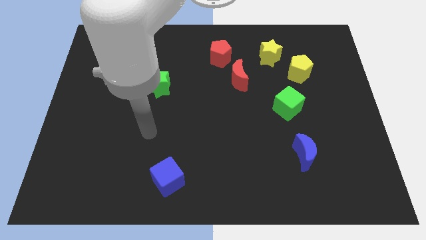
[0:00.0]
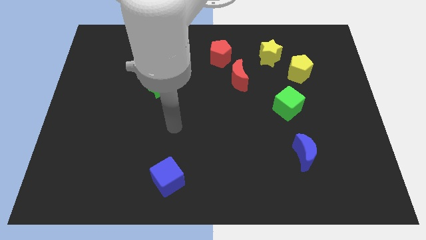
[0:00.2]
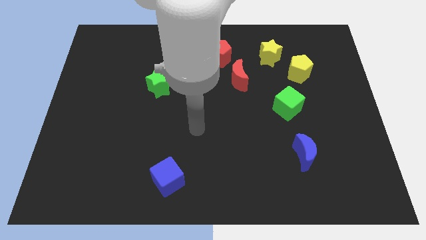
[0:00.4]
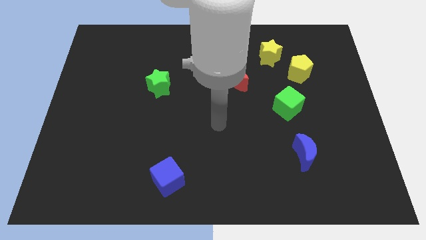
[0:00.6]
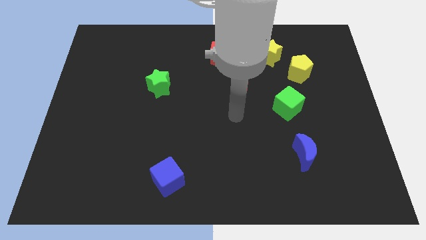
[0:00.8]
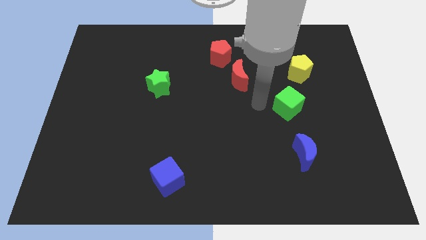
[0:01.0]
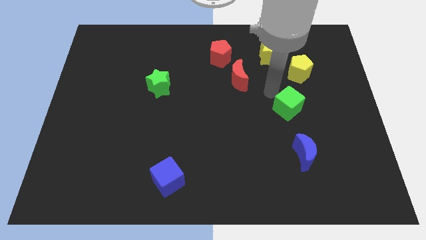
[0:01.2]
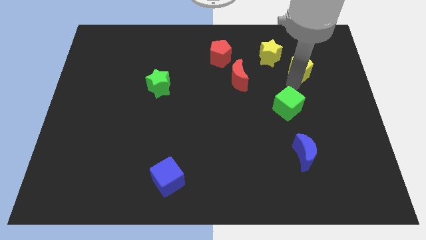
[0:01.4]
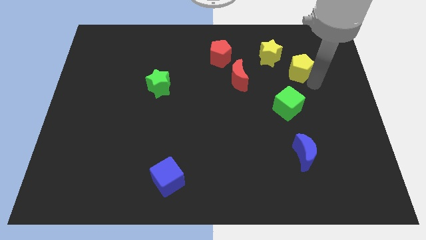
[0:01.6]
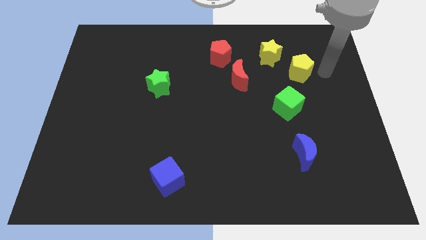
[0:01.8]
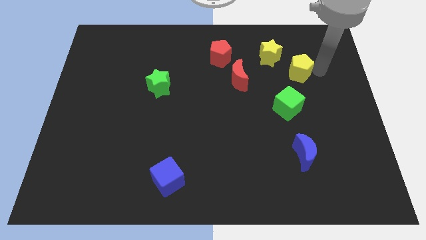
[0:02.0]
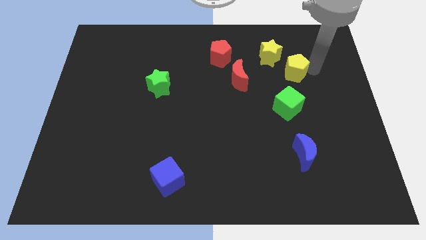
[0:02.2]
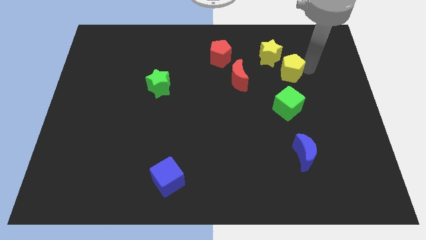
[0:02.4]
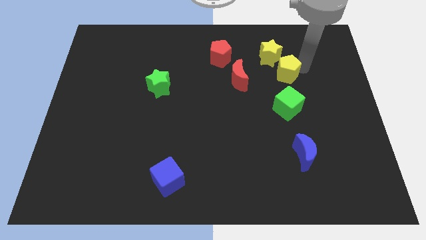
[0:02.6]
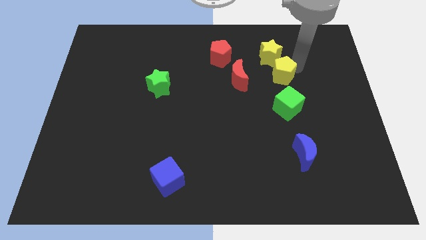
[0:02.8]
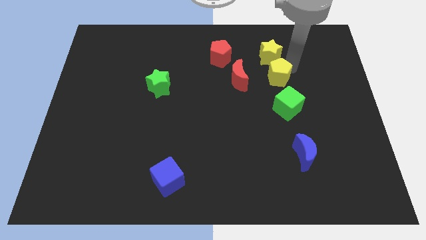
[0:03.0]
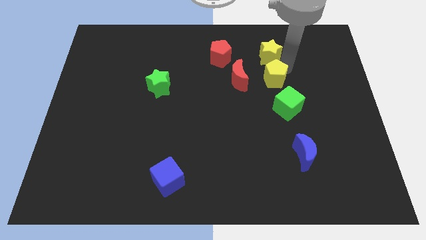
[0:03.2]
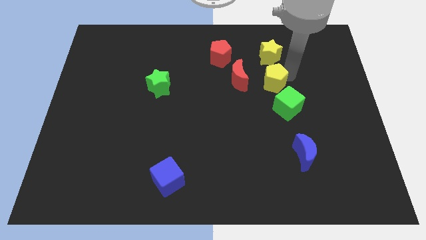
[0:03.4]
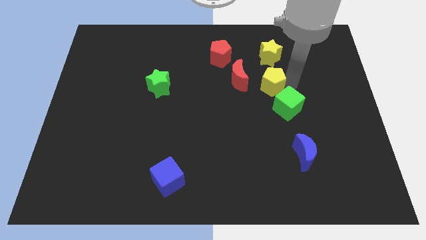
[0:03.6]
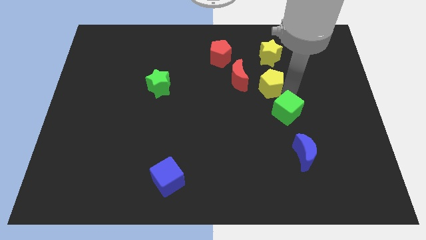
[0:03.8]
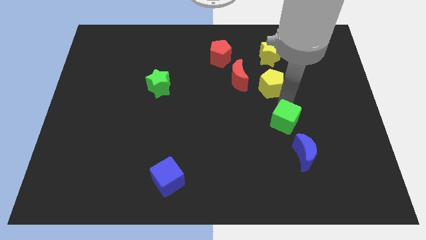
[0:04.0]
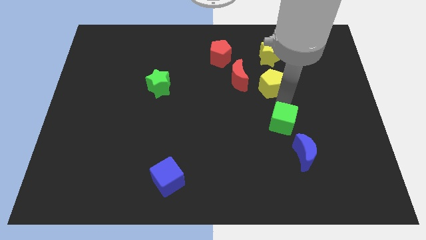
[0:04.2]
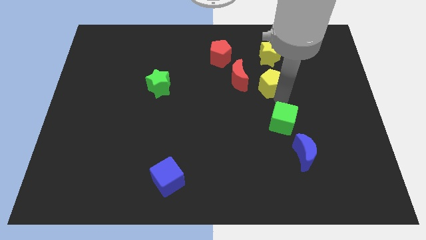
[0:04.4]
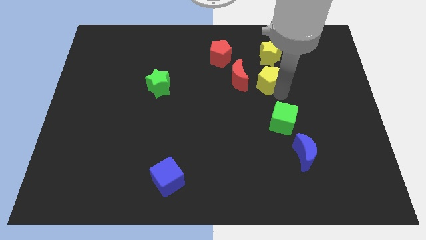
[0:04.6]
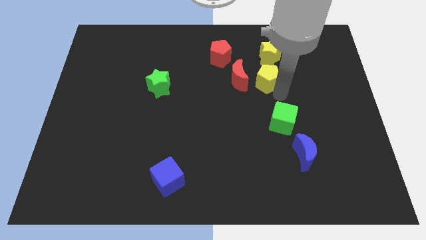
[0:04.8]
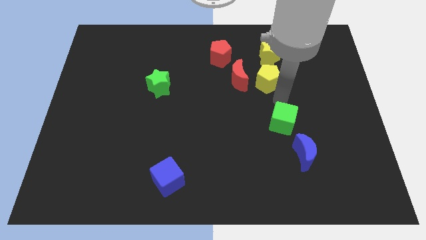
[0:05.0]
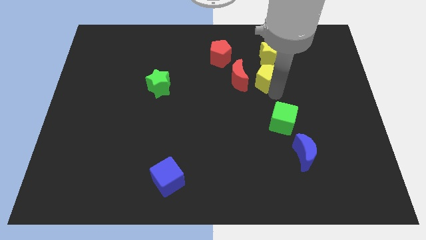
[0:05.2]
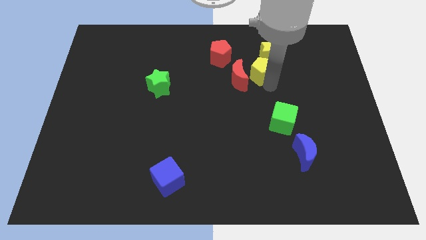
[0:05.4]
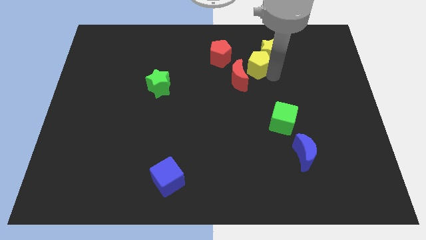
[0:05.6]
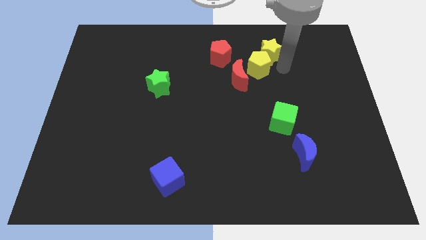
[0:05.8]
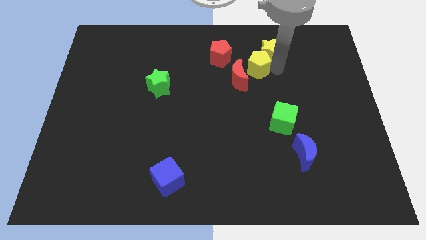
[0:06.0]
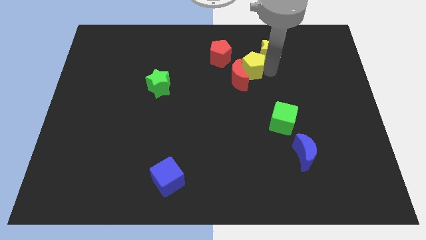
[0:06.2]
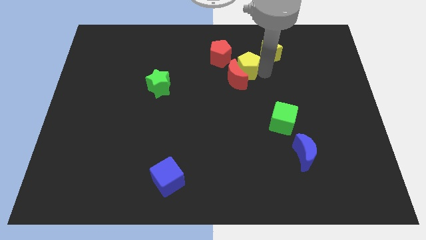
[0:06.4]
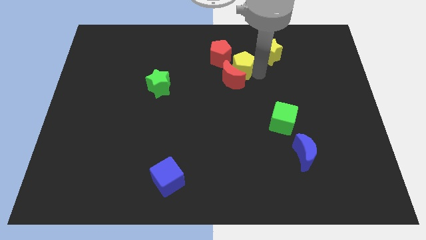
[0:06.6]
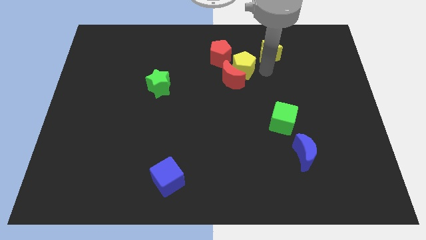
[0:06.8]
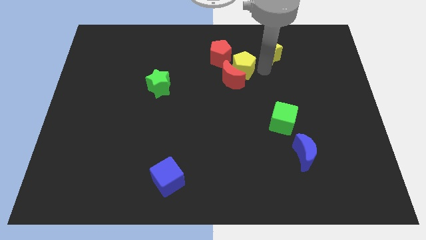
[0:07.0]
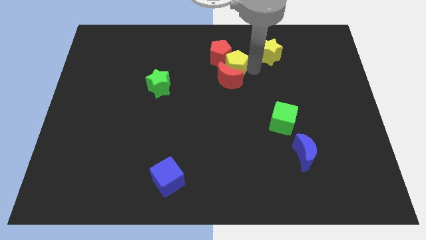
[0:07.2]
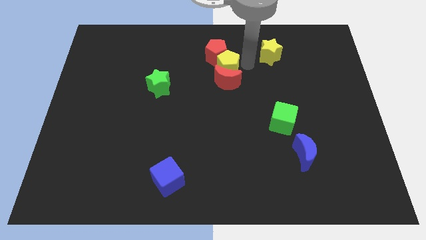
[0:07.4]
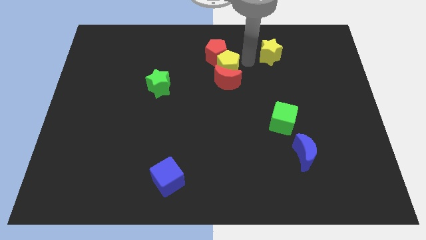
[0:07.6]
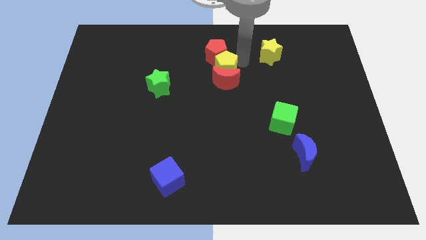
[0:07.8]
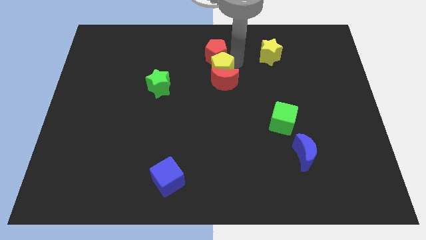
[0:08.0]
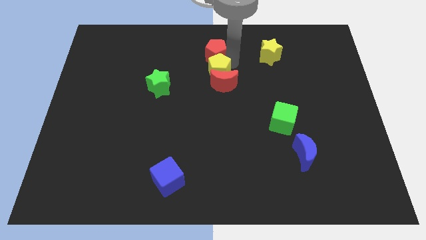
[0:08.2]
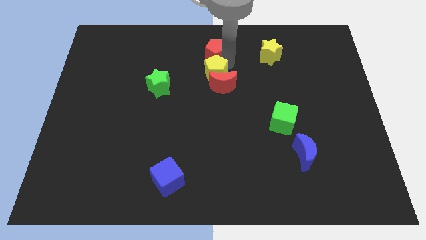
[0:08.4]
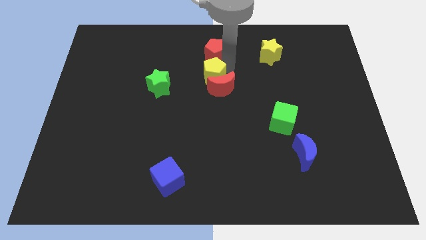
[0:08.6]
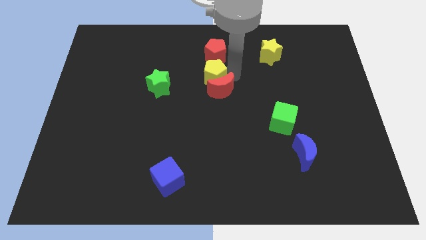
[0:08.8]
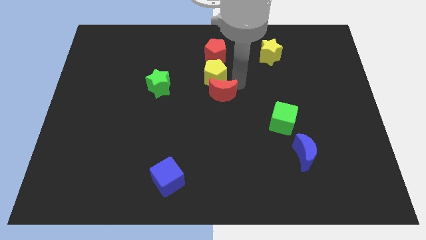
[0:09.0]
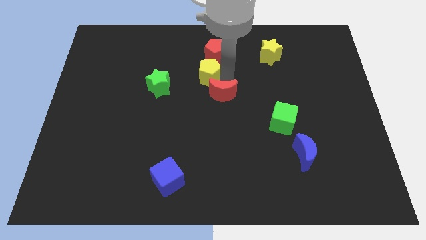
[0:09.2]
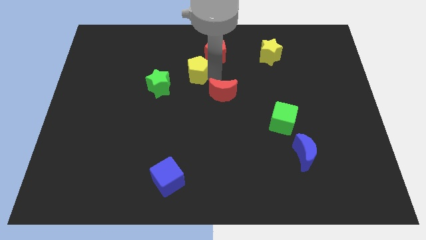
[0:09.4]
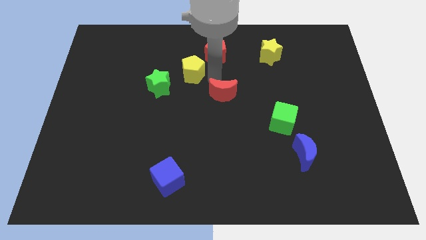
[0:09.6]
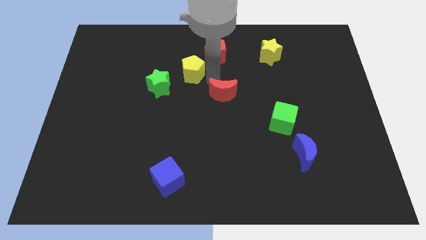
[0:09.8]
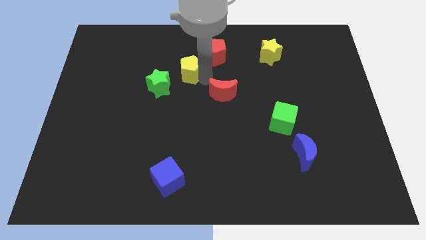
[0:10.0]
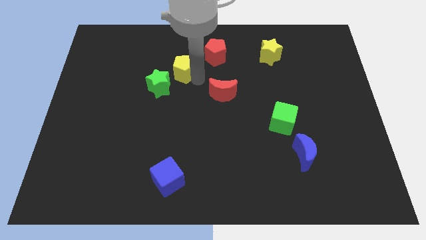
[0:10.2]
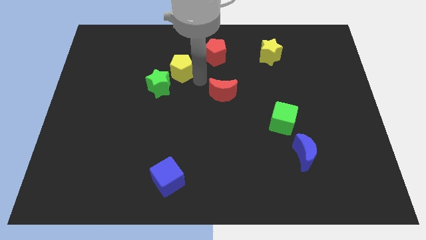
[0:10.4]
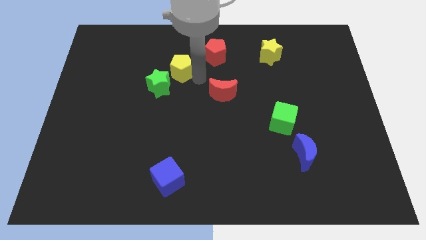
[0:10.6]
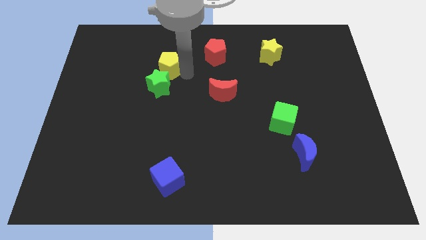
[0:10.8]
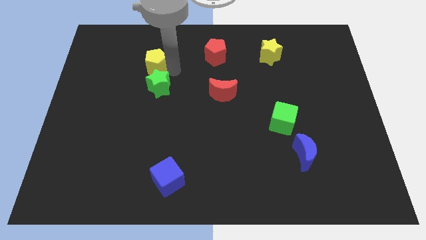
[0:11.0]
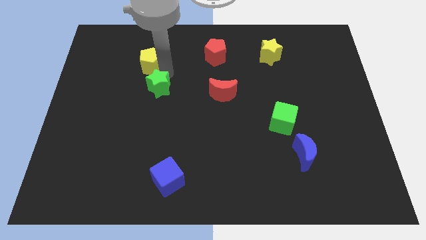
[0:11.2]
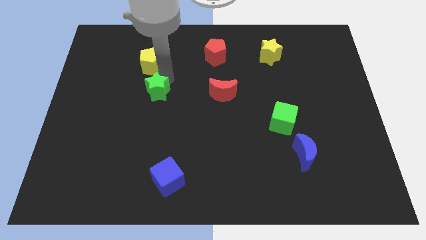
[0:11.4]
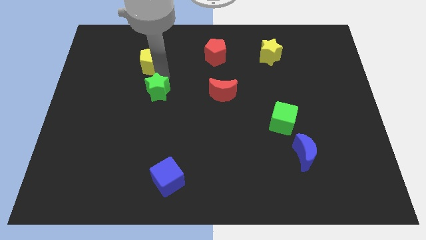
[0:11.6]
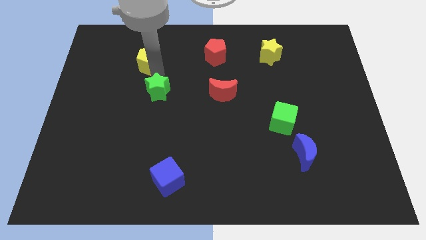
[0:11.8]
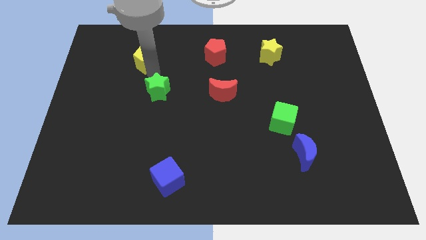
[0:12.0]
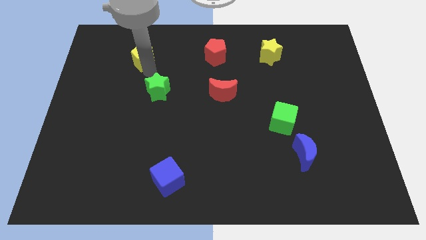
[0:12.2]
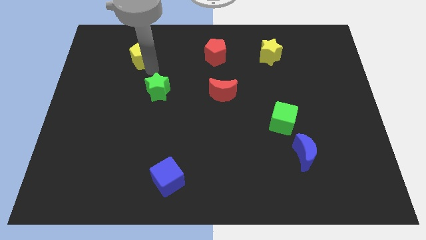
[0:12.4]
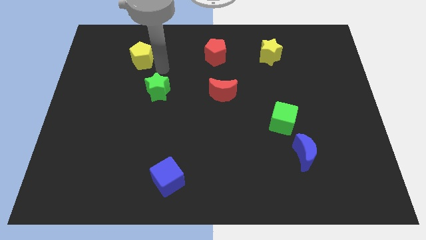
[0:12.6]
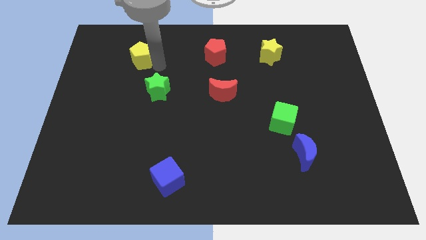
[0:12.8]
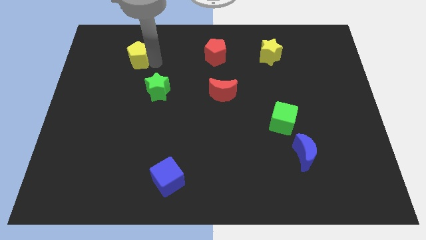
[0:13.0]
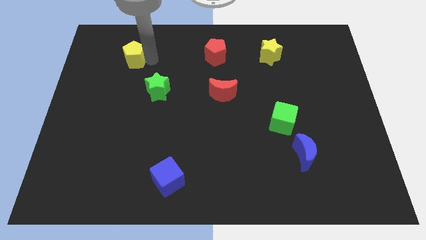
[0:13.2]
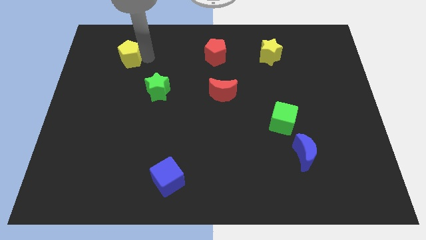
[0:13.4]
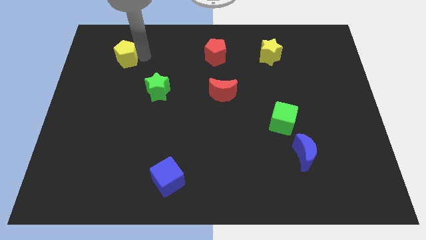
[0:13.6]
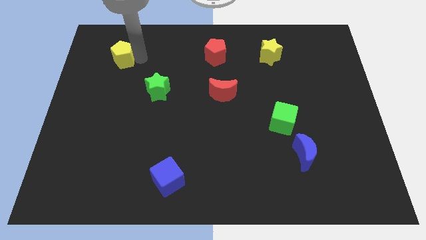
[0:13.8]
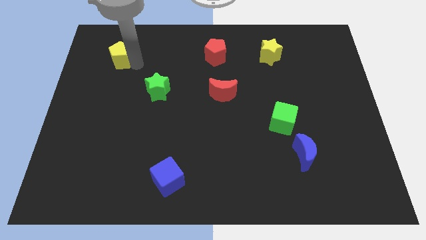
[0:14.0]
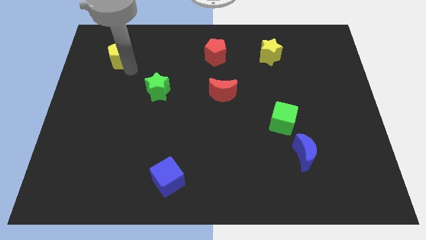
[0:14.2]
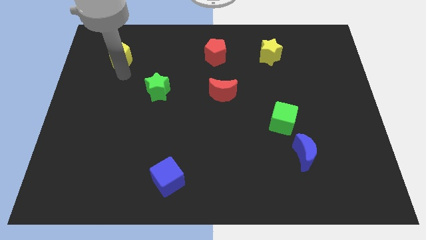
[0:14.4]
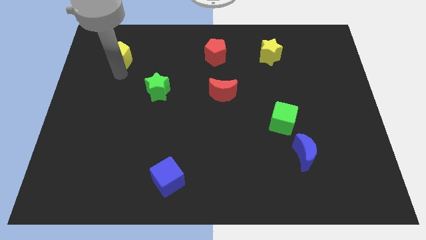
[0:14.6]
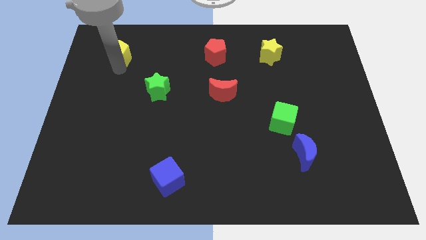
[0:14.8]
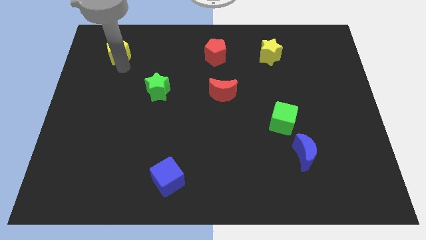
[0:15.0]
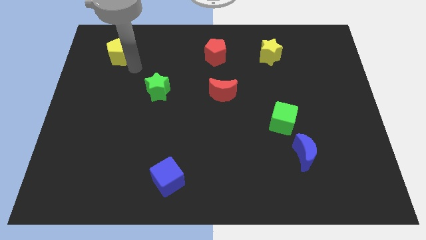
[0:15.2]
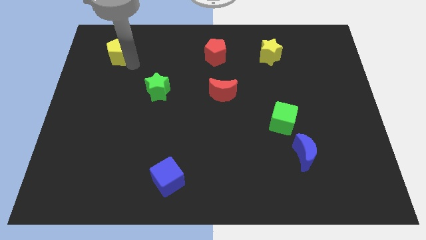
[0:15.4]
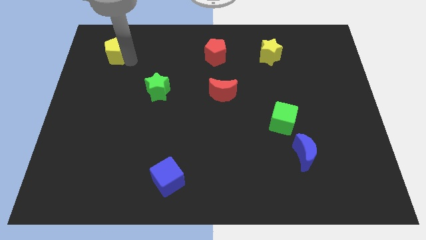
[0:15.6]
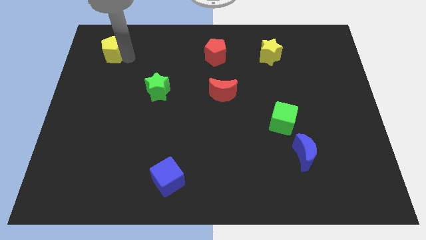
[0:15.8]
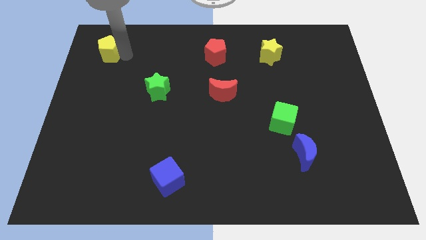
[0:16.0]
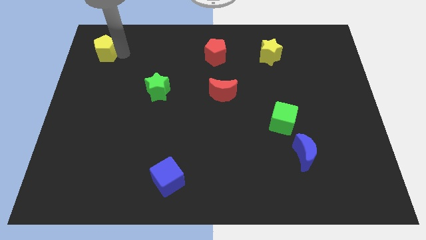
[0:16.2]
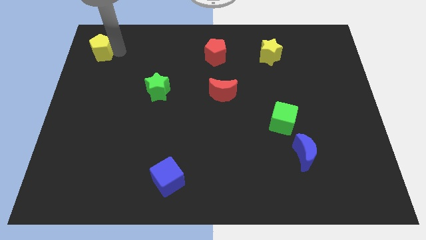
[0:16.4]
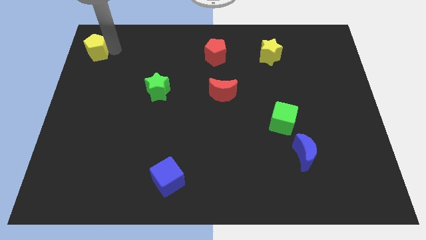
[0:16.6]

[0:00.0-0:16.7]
push the yellow pentagon to the top left corner
